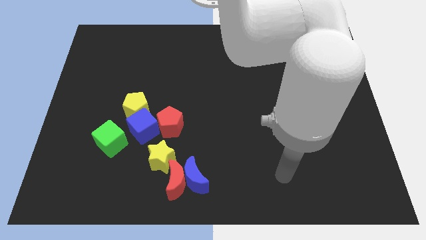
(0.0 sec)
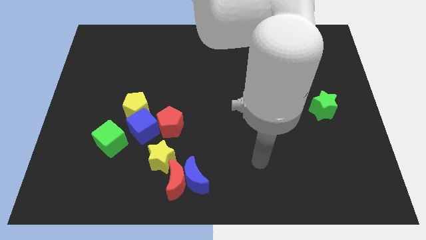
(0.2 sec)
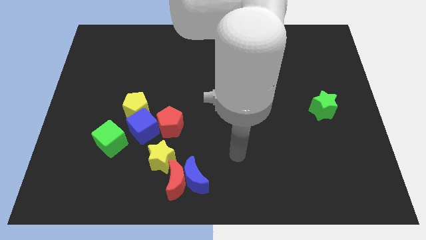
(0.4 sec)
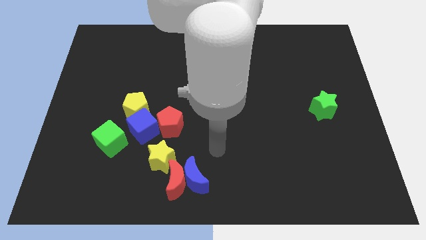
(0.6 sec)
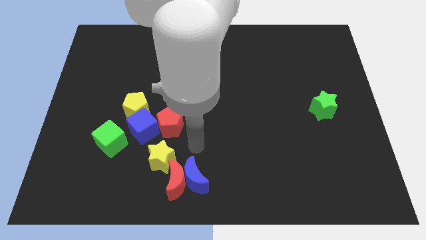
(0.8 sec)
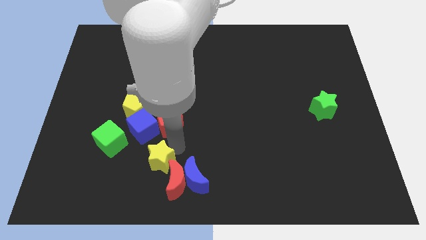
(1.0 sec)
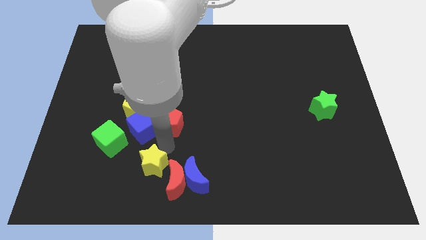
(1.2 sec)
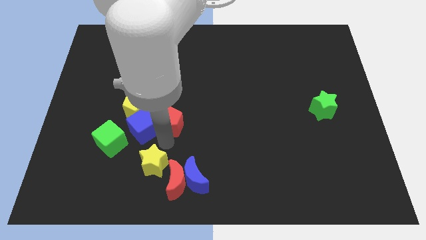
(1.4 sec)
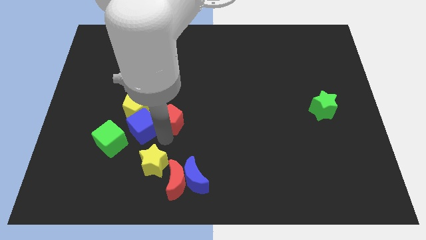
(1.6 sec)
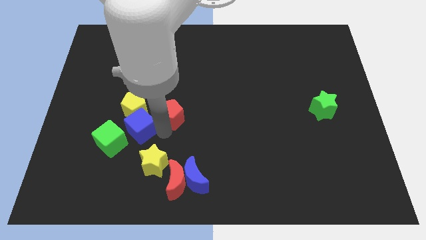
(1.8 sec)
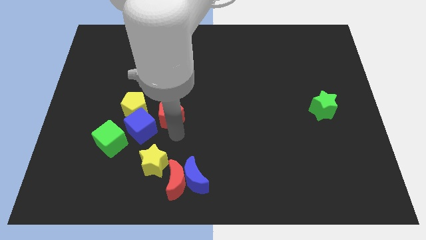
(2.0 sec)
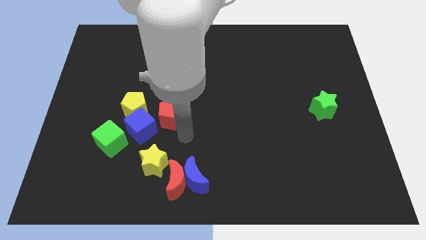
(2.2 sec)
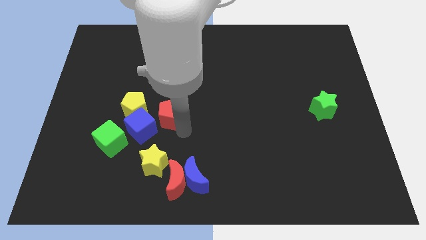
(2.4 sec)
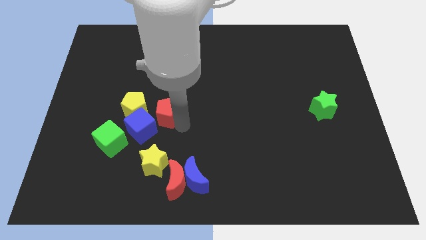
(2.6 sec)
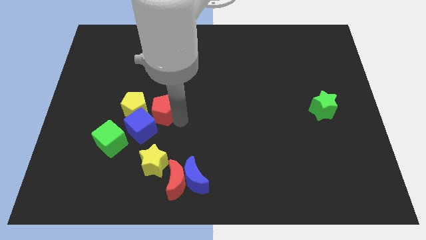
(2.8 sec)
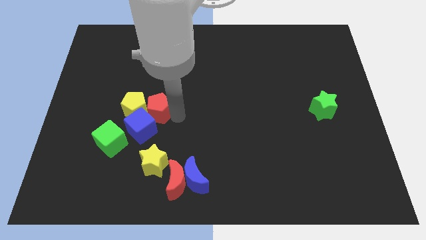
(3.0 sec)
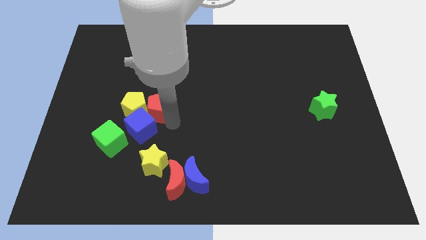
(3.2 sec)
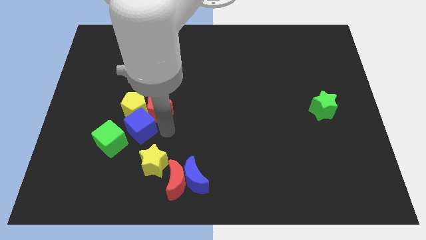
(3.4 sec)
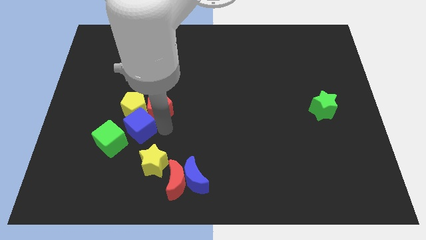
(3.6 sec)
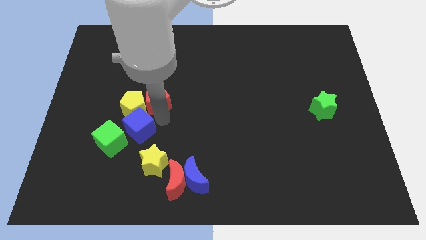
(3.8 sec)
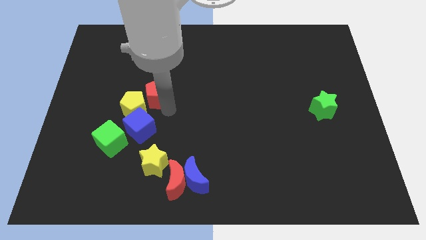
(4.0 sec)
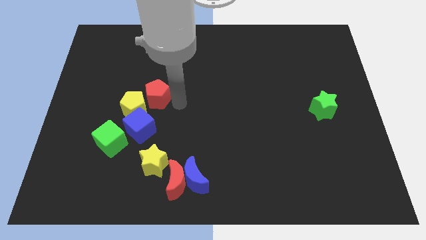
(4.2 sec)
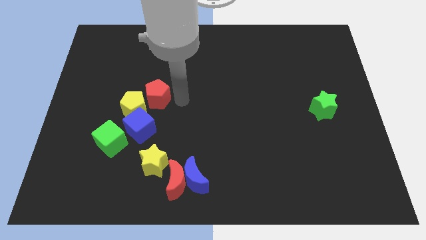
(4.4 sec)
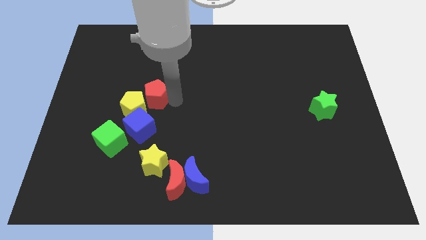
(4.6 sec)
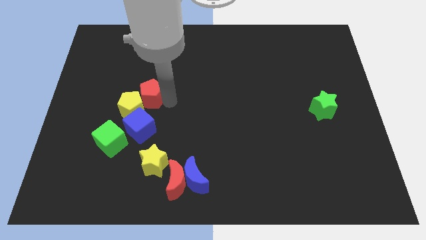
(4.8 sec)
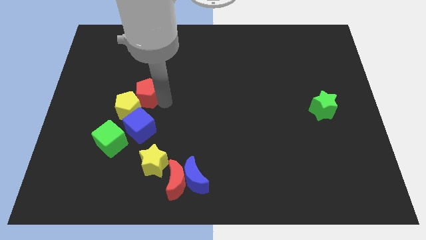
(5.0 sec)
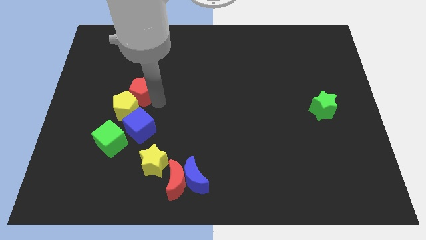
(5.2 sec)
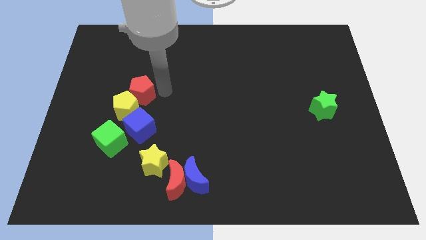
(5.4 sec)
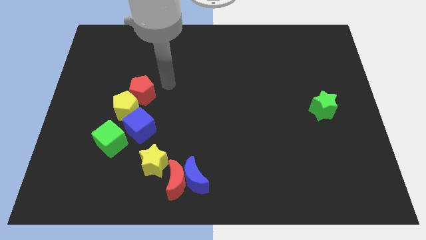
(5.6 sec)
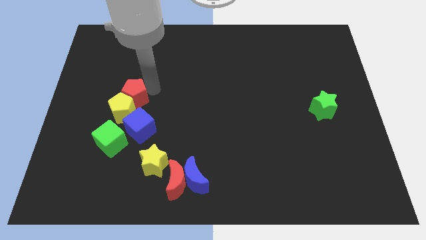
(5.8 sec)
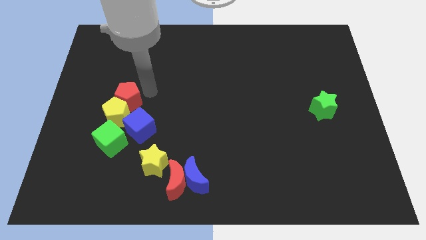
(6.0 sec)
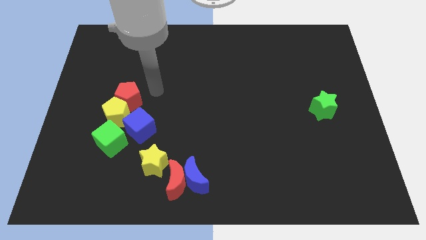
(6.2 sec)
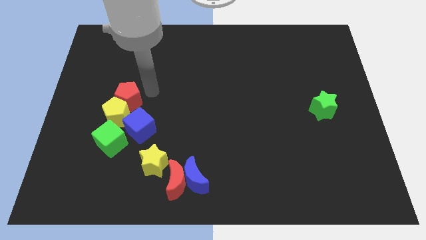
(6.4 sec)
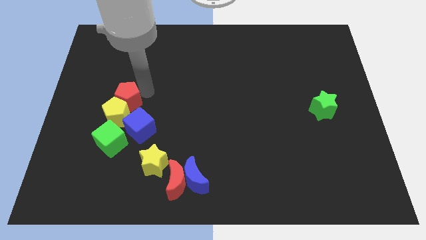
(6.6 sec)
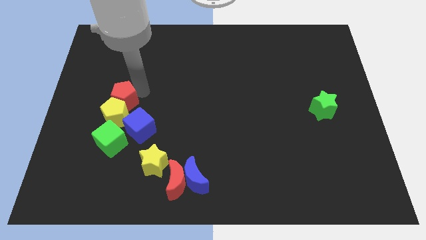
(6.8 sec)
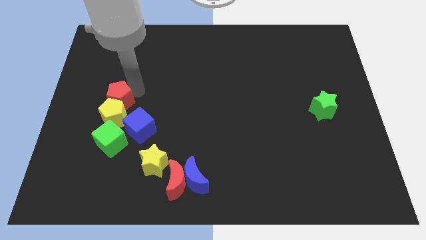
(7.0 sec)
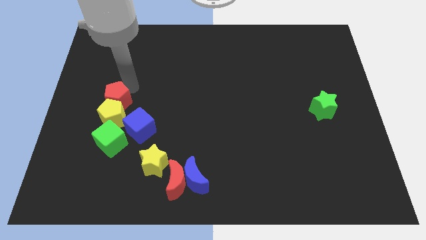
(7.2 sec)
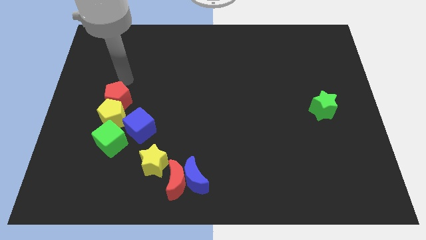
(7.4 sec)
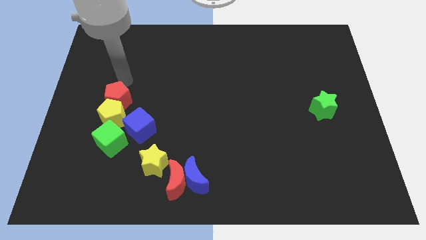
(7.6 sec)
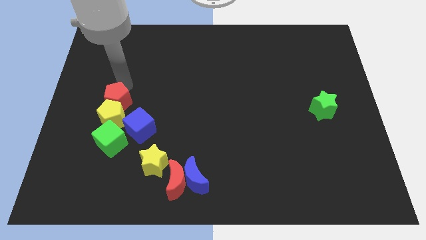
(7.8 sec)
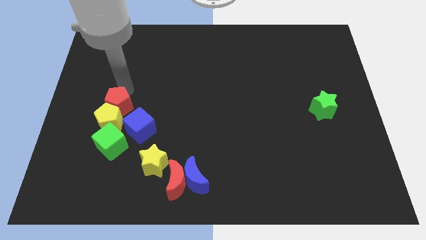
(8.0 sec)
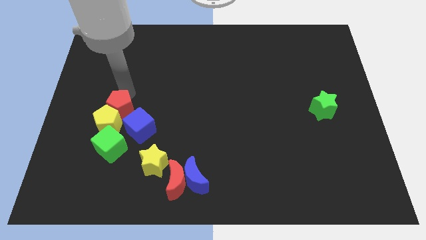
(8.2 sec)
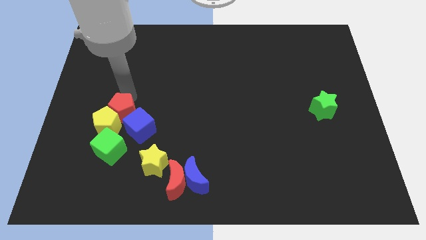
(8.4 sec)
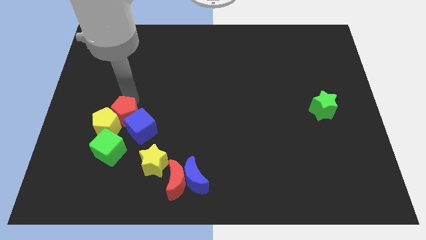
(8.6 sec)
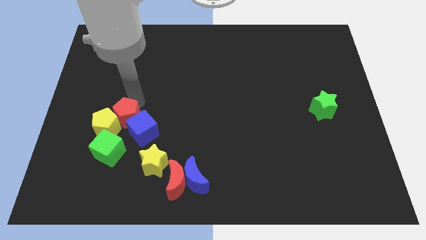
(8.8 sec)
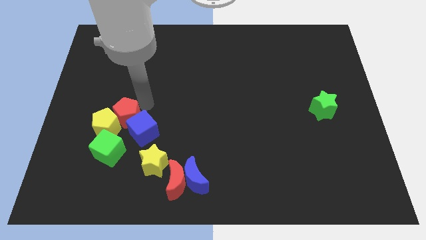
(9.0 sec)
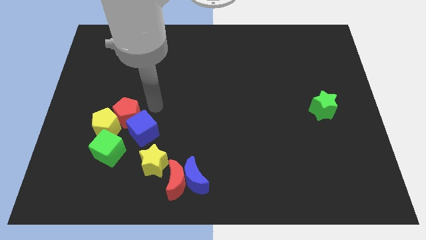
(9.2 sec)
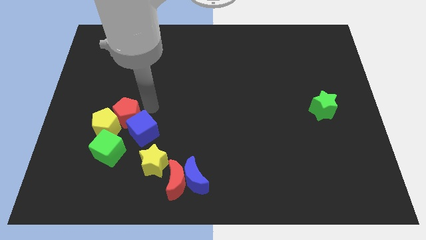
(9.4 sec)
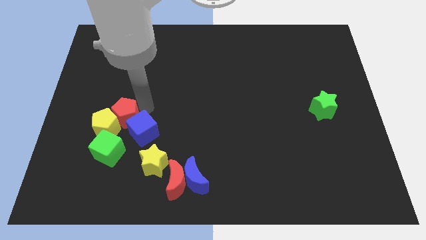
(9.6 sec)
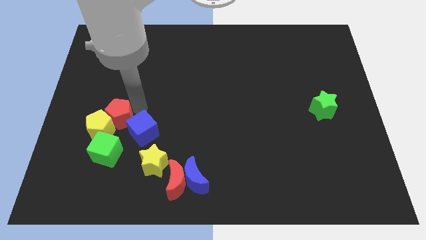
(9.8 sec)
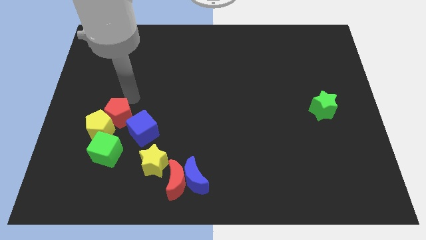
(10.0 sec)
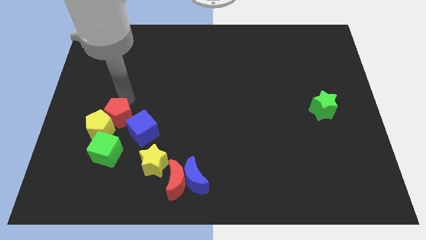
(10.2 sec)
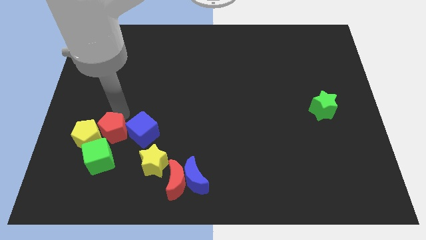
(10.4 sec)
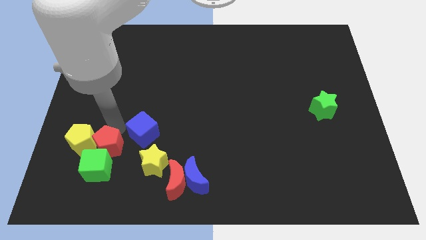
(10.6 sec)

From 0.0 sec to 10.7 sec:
move the red pentagon next to the green cube

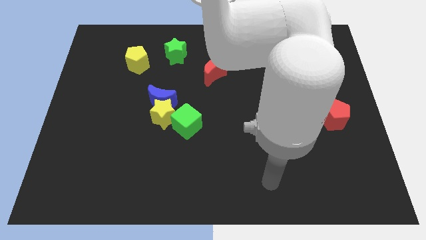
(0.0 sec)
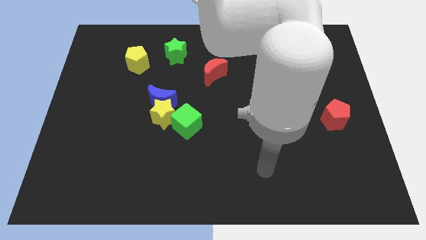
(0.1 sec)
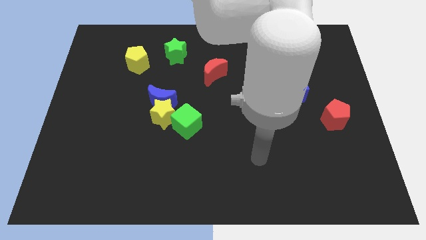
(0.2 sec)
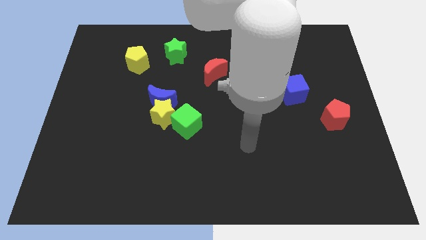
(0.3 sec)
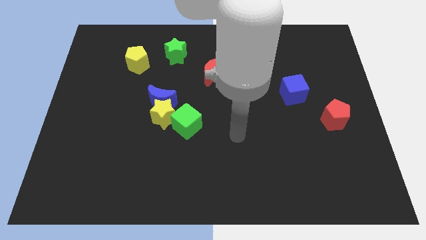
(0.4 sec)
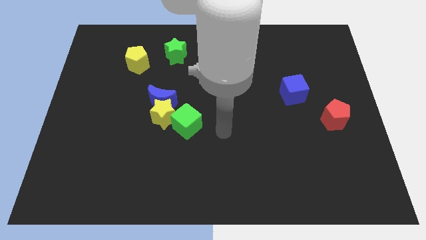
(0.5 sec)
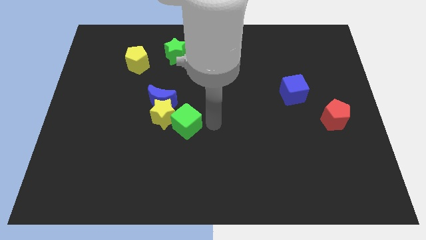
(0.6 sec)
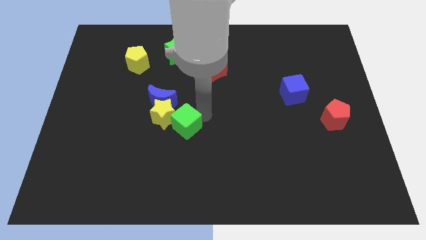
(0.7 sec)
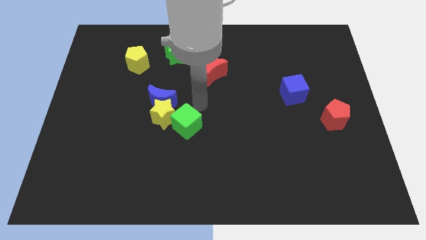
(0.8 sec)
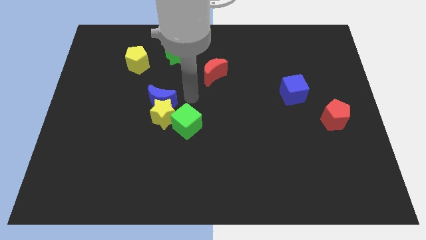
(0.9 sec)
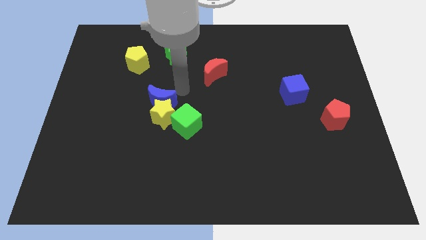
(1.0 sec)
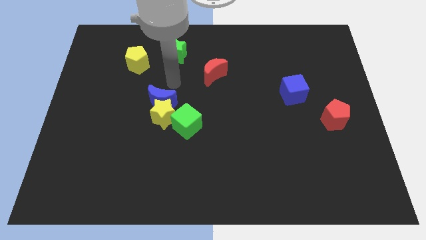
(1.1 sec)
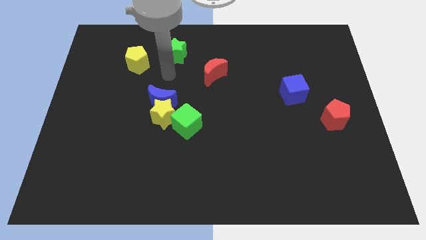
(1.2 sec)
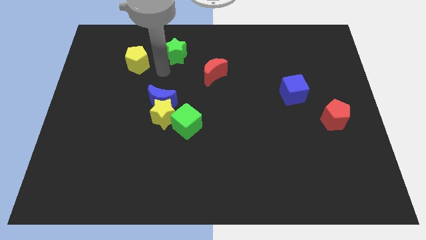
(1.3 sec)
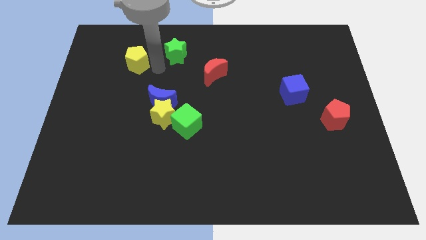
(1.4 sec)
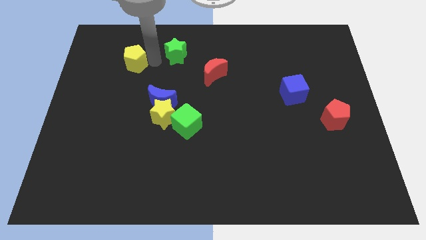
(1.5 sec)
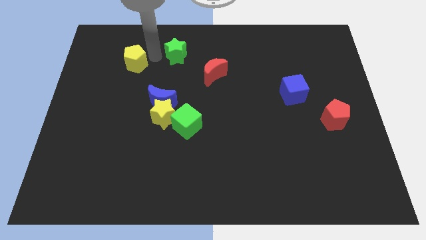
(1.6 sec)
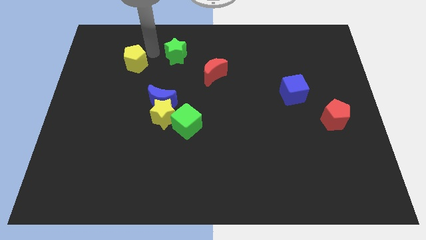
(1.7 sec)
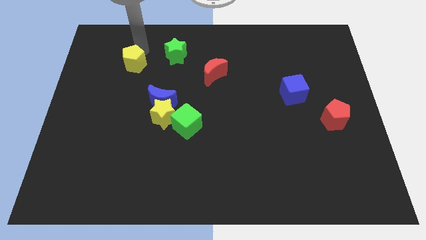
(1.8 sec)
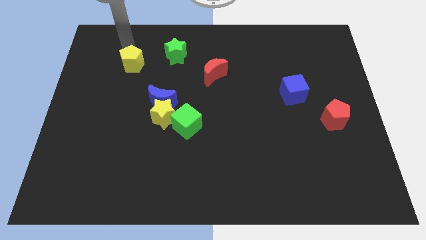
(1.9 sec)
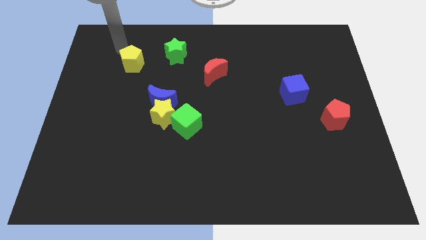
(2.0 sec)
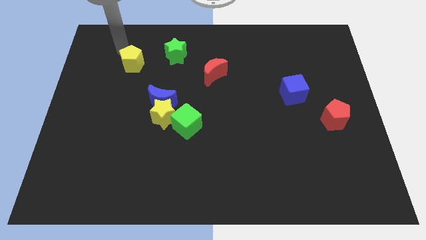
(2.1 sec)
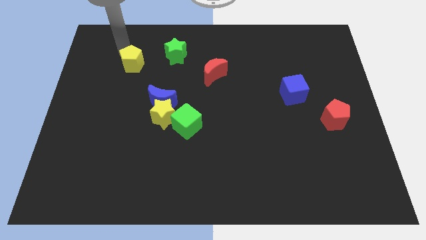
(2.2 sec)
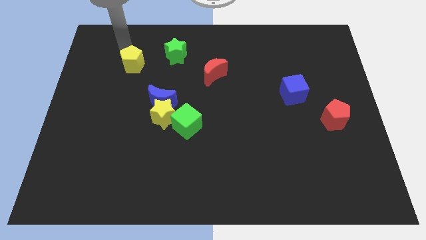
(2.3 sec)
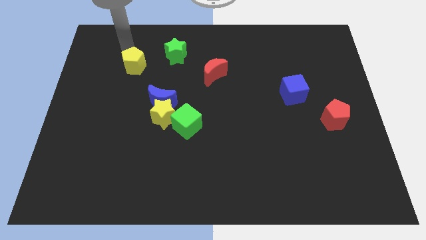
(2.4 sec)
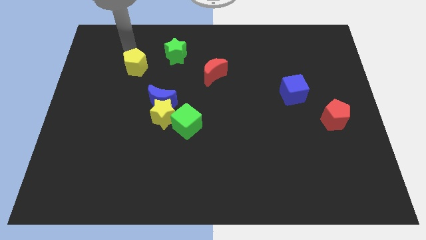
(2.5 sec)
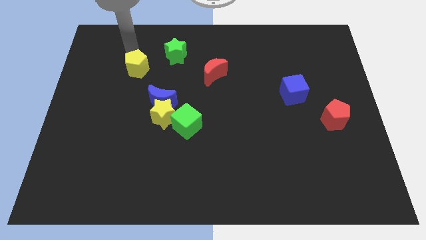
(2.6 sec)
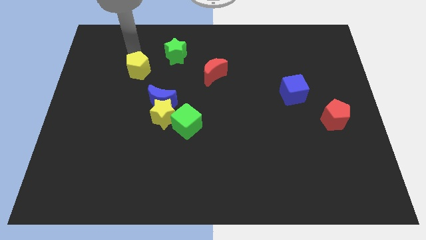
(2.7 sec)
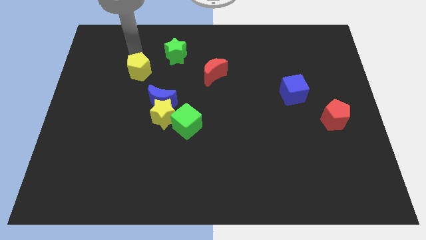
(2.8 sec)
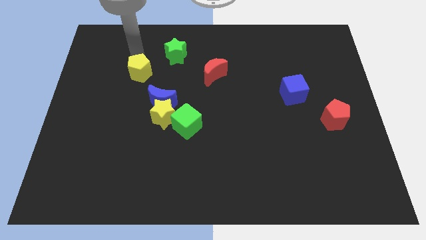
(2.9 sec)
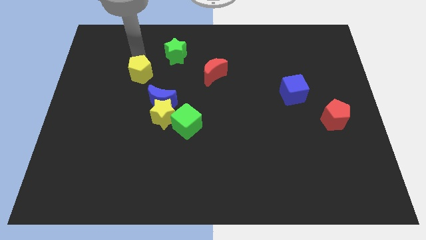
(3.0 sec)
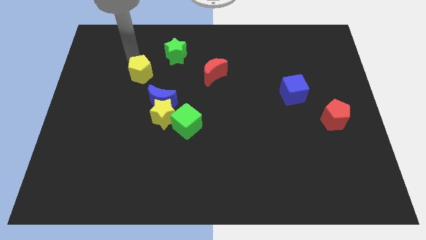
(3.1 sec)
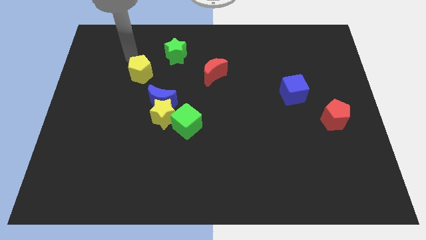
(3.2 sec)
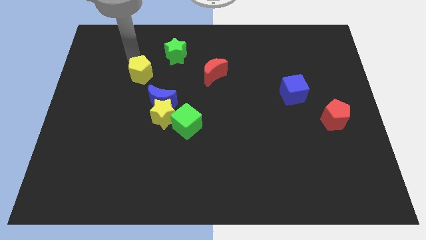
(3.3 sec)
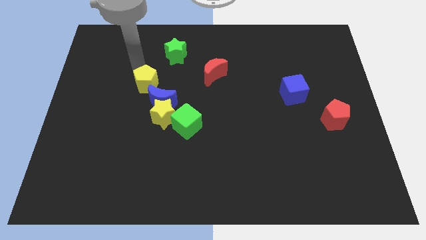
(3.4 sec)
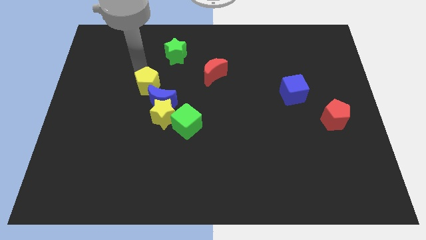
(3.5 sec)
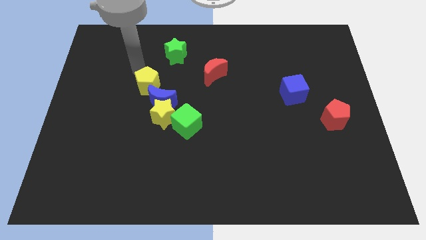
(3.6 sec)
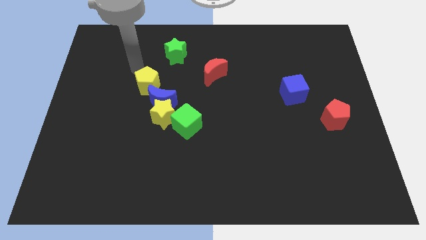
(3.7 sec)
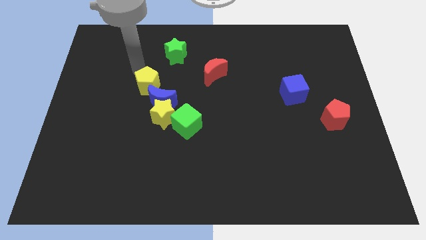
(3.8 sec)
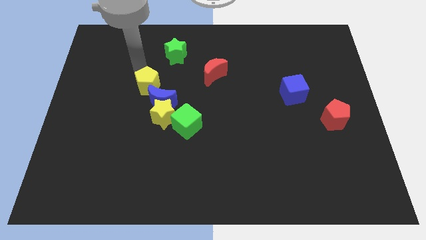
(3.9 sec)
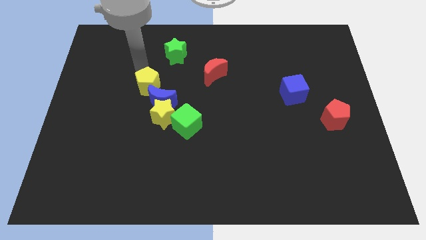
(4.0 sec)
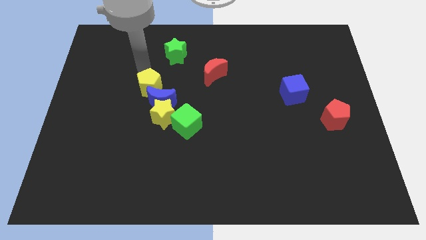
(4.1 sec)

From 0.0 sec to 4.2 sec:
put the yellow pentagon next to the blue moon
